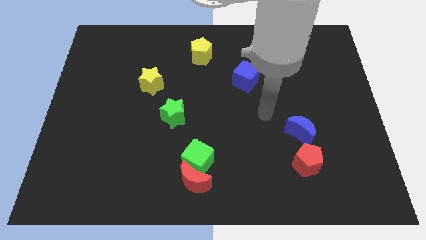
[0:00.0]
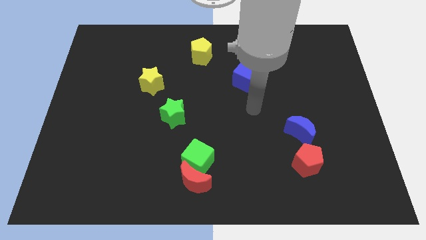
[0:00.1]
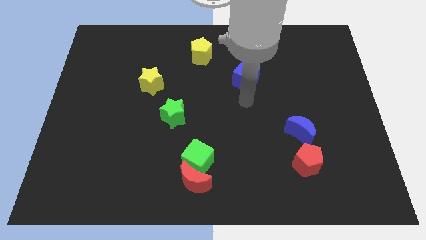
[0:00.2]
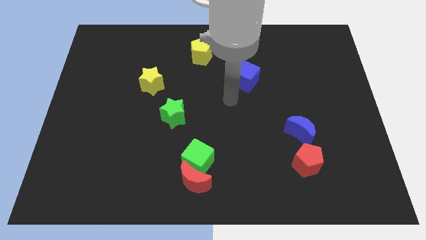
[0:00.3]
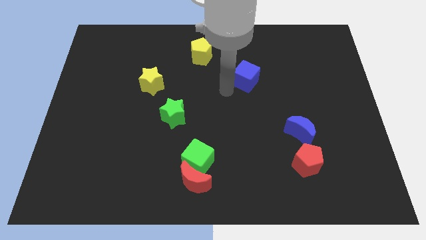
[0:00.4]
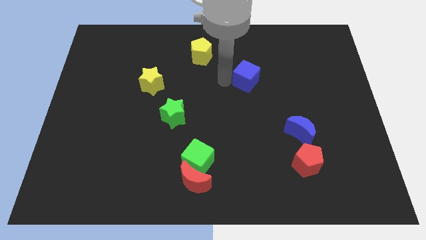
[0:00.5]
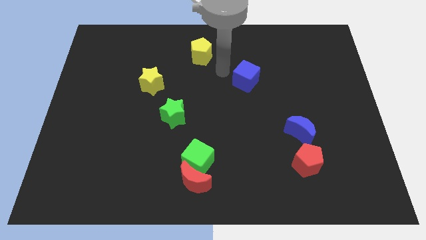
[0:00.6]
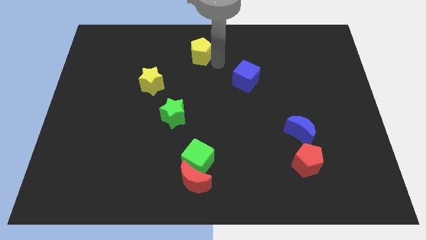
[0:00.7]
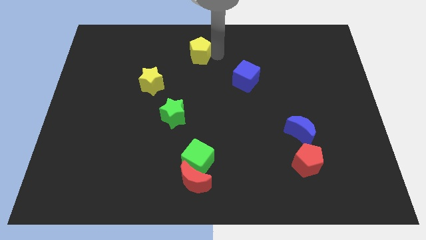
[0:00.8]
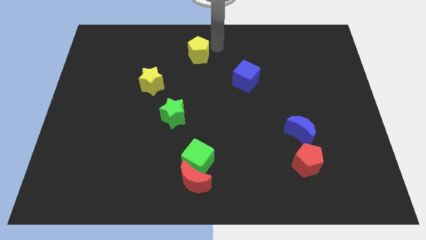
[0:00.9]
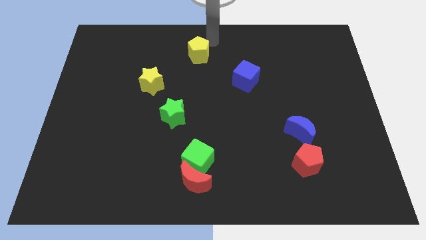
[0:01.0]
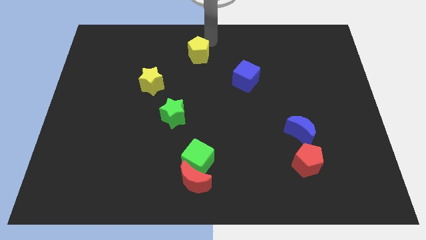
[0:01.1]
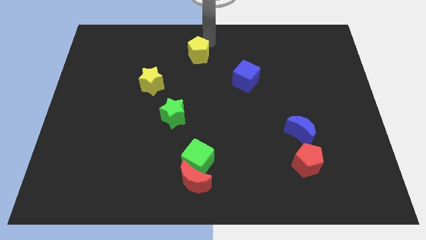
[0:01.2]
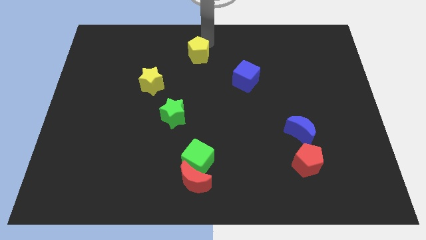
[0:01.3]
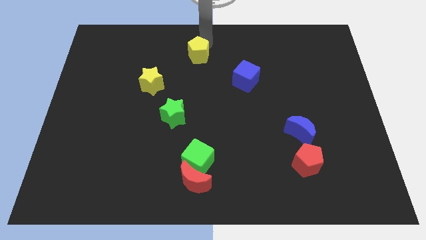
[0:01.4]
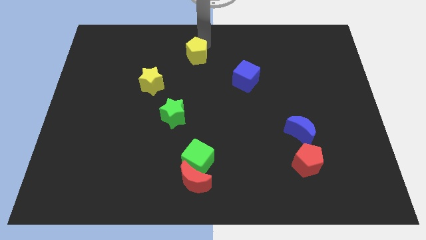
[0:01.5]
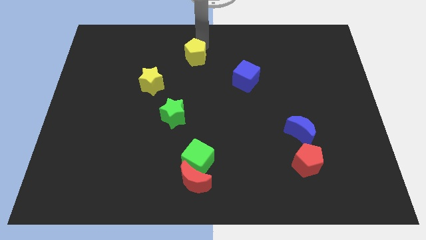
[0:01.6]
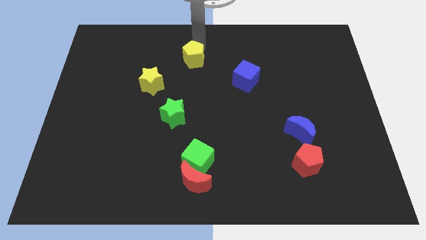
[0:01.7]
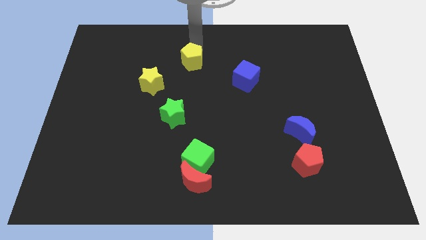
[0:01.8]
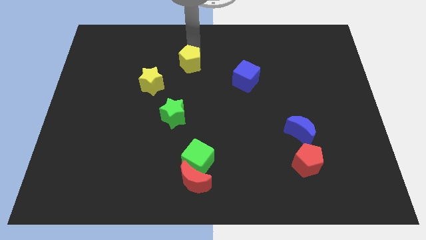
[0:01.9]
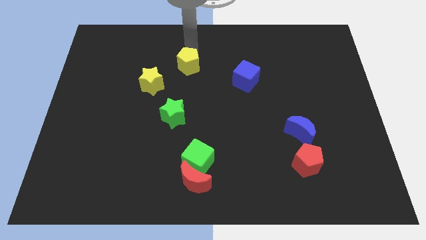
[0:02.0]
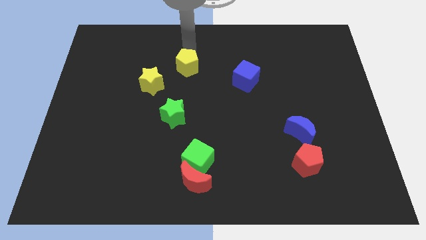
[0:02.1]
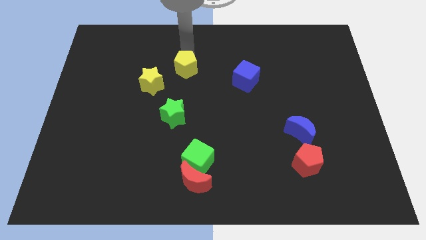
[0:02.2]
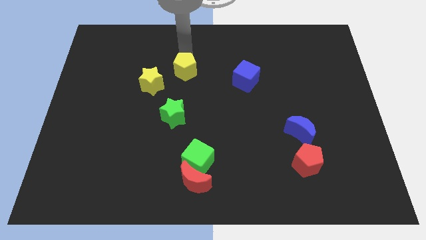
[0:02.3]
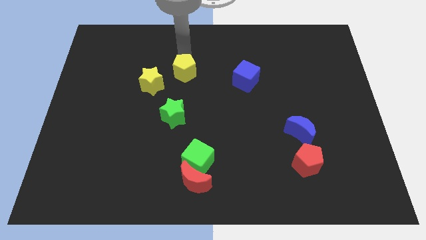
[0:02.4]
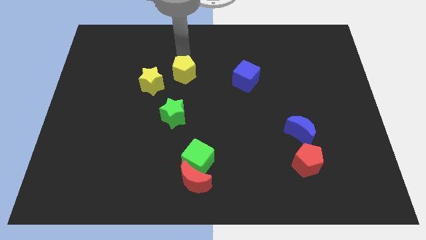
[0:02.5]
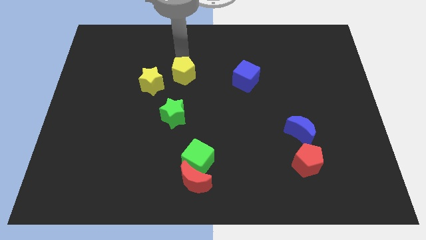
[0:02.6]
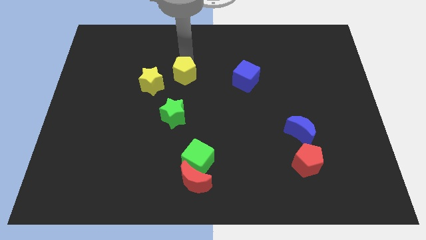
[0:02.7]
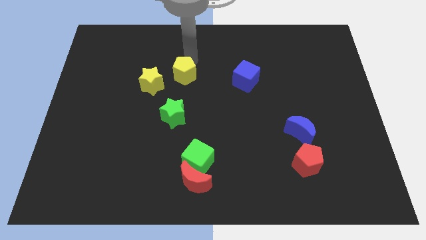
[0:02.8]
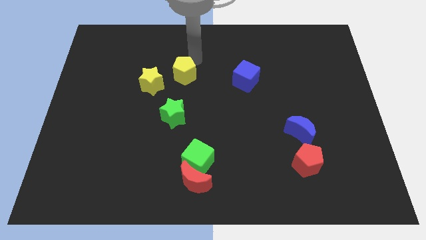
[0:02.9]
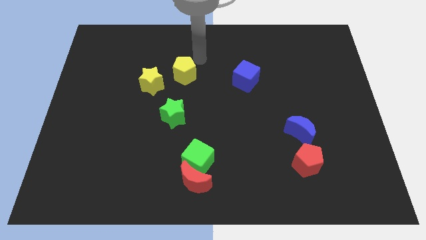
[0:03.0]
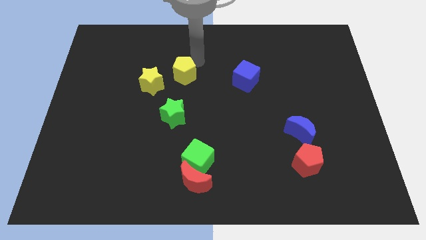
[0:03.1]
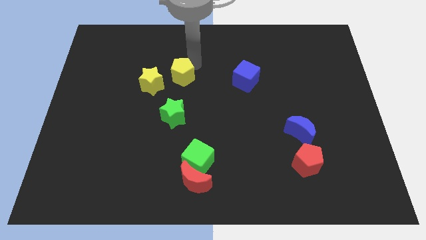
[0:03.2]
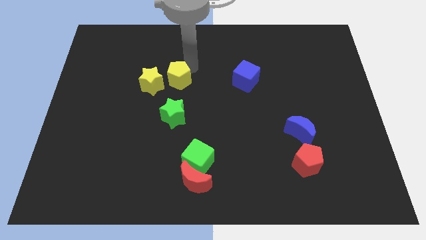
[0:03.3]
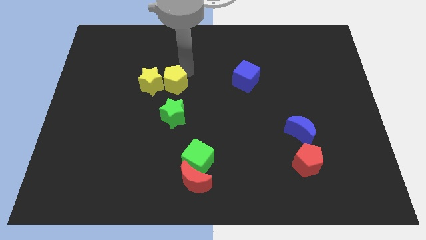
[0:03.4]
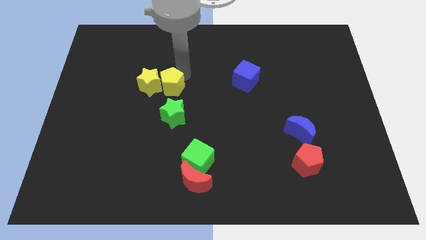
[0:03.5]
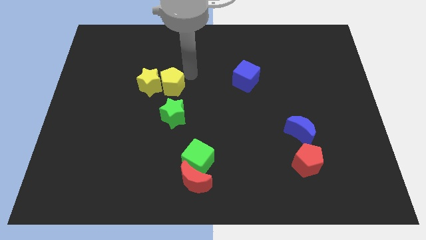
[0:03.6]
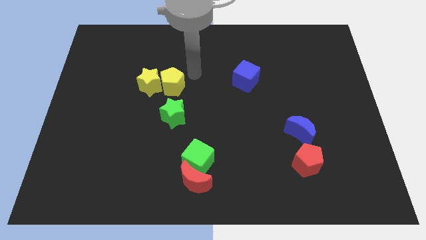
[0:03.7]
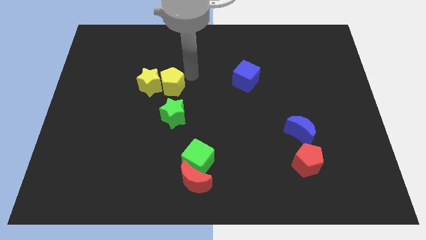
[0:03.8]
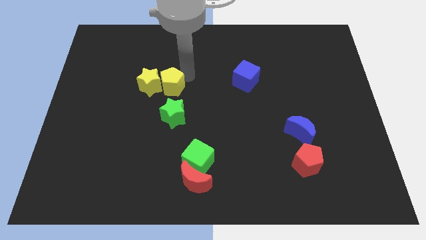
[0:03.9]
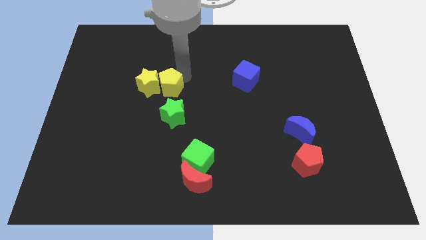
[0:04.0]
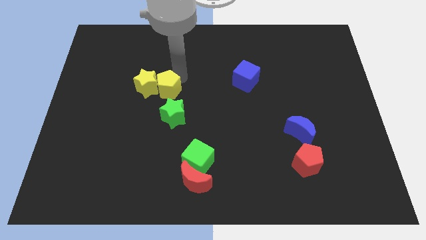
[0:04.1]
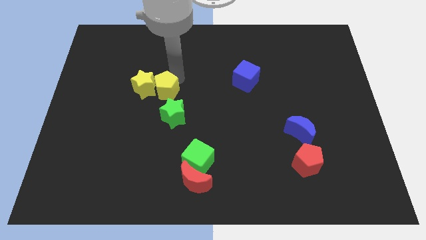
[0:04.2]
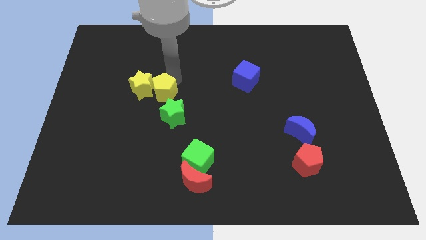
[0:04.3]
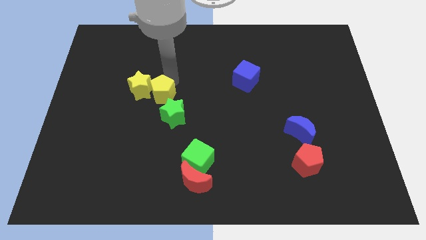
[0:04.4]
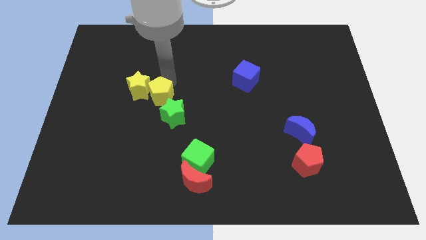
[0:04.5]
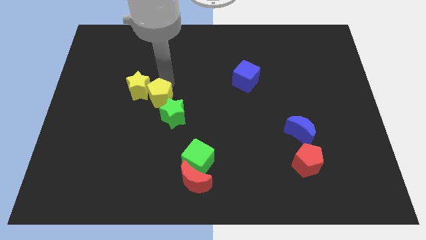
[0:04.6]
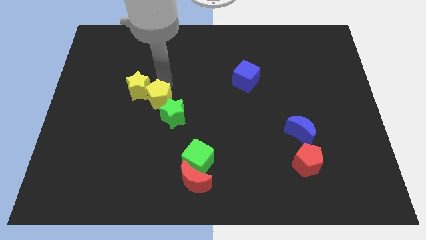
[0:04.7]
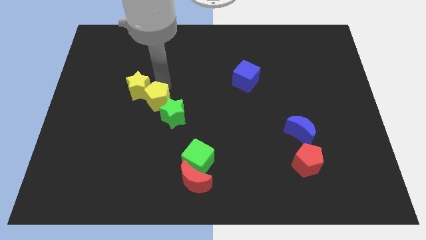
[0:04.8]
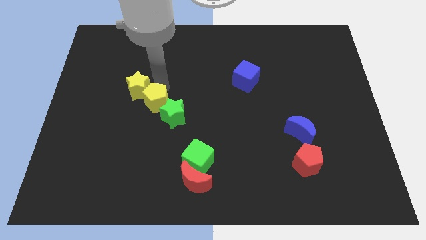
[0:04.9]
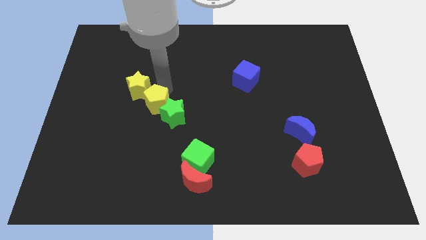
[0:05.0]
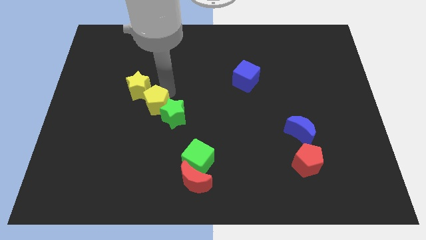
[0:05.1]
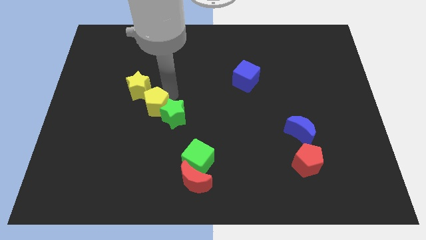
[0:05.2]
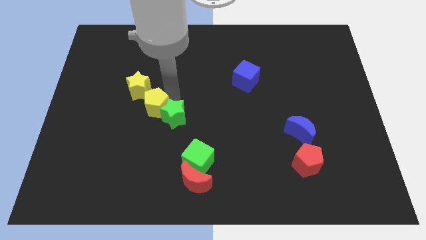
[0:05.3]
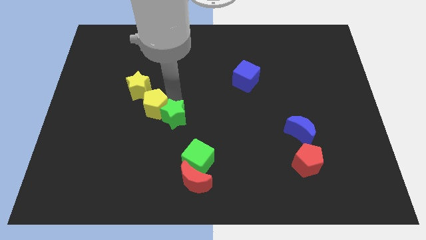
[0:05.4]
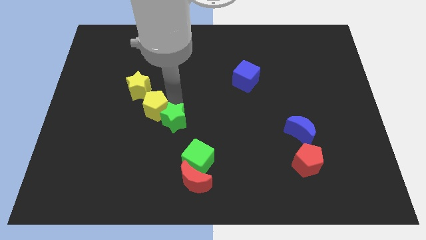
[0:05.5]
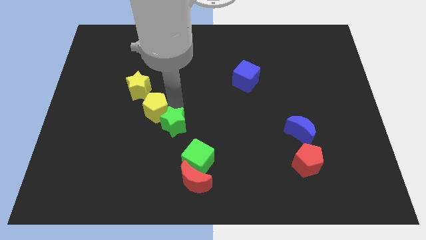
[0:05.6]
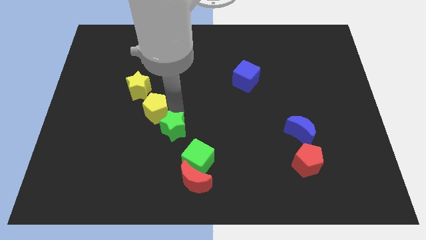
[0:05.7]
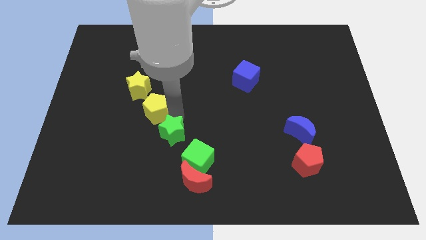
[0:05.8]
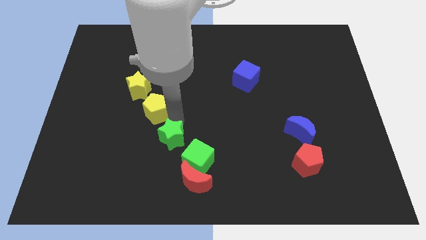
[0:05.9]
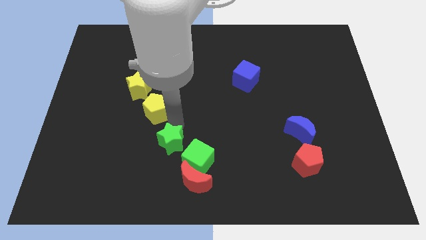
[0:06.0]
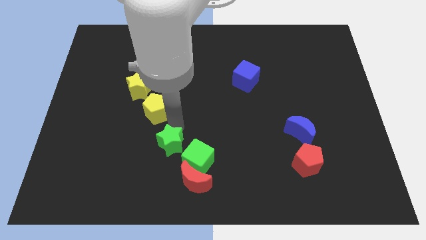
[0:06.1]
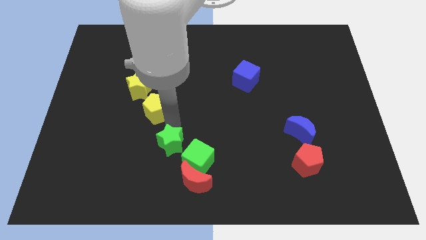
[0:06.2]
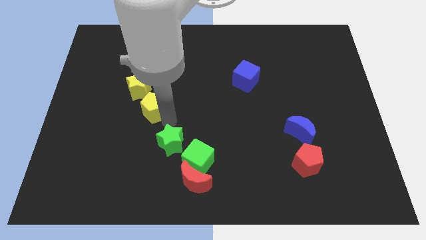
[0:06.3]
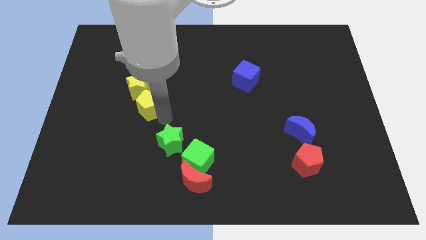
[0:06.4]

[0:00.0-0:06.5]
slide the yellow pentagon diagonally down and left

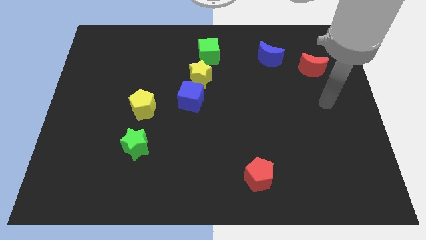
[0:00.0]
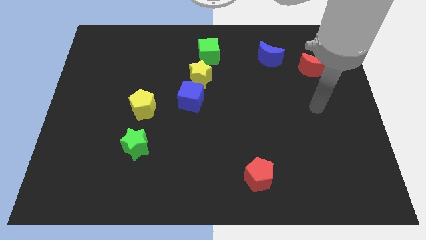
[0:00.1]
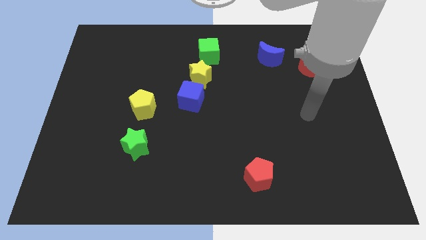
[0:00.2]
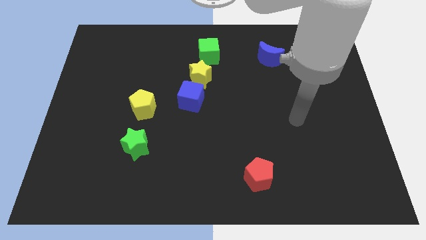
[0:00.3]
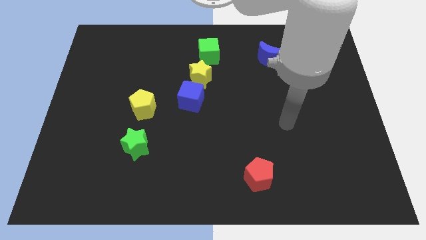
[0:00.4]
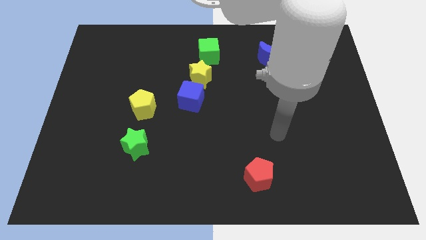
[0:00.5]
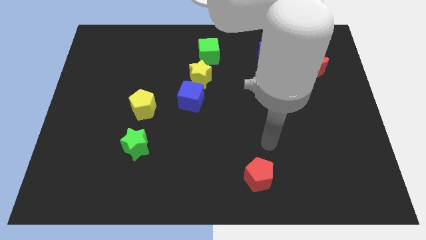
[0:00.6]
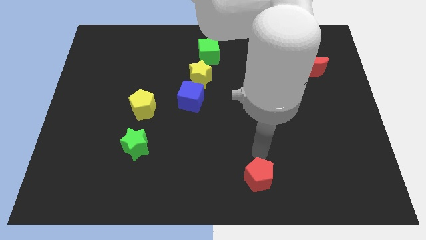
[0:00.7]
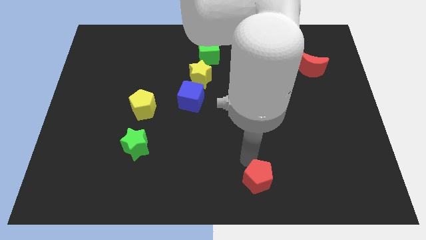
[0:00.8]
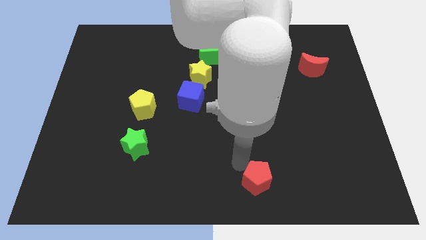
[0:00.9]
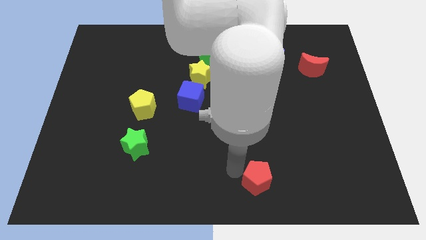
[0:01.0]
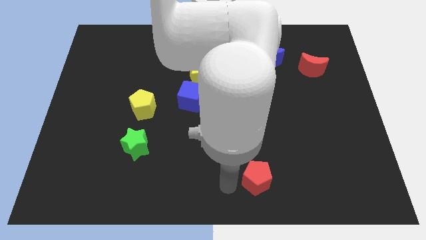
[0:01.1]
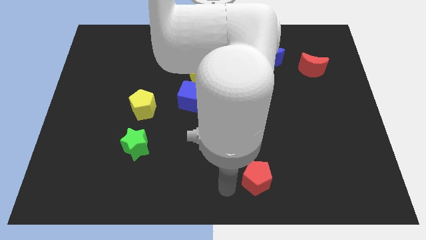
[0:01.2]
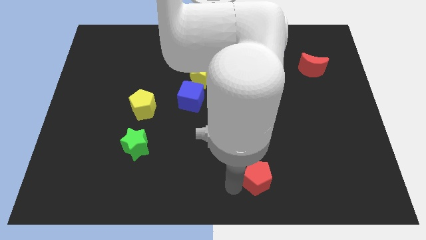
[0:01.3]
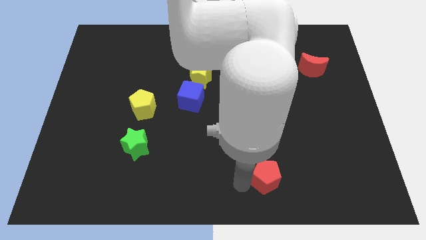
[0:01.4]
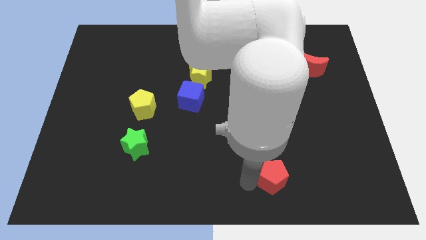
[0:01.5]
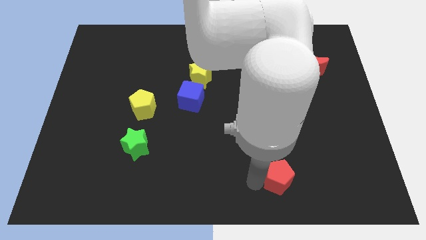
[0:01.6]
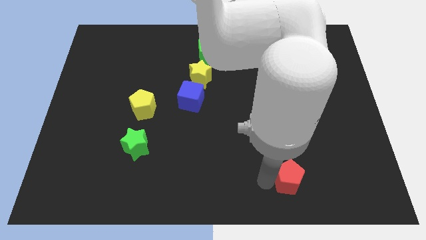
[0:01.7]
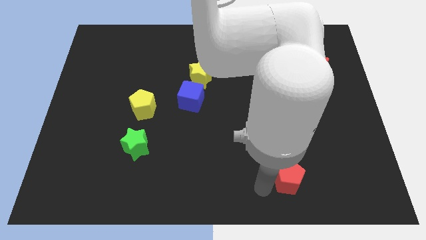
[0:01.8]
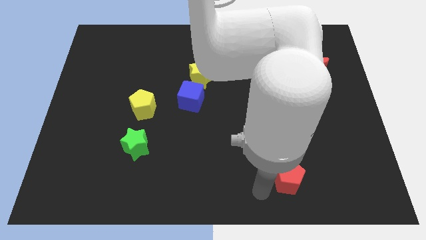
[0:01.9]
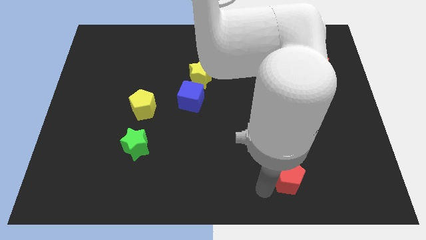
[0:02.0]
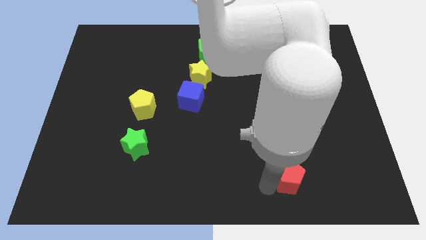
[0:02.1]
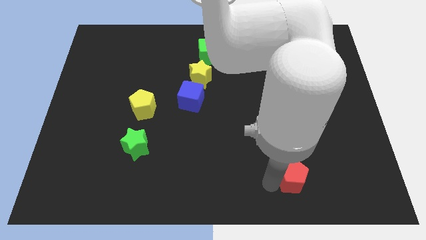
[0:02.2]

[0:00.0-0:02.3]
slide the red pentagon somewhat right
